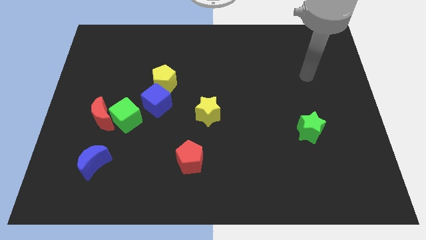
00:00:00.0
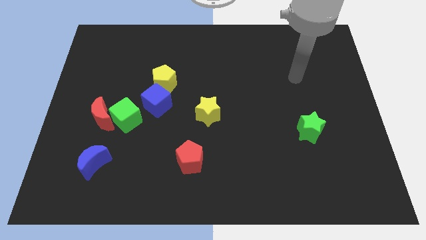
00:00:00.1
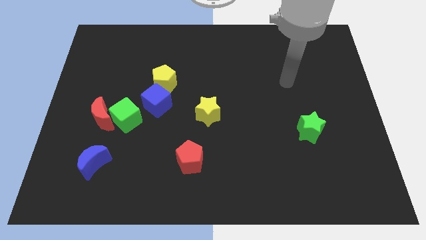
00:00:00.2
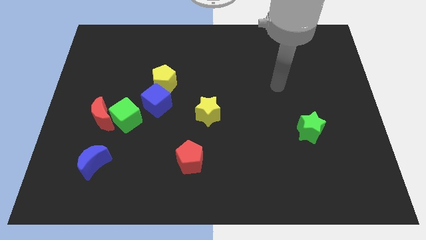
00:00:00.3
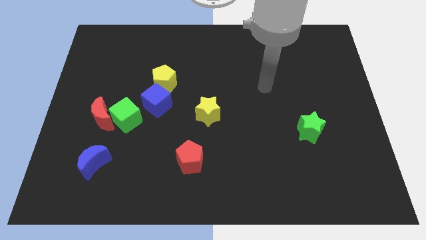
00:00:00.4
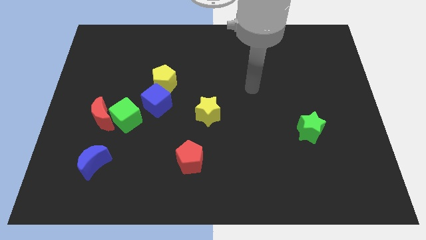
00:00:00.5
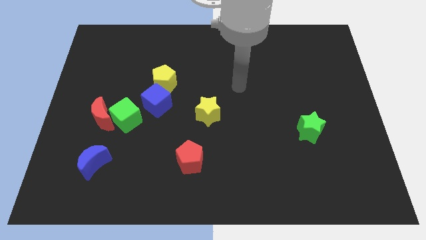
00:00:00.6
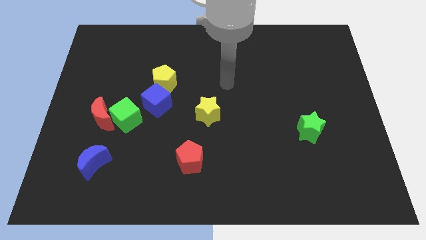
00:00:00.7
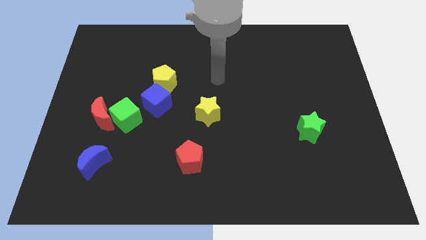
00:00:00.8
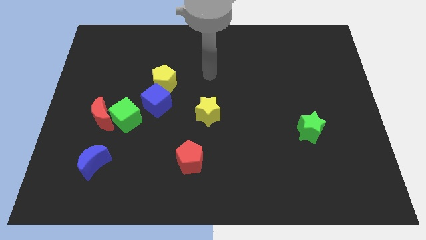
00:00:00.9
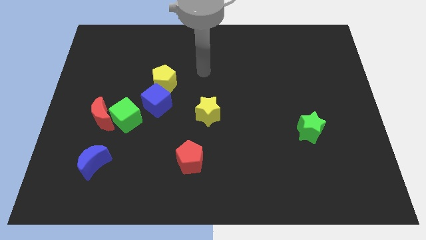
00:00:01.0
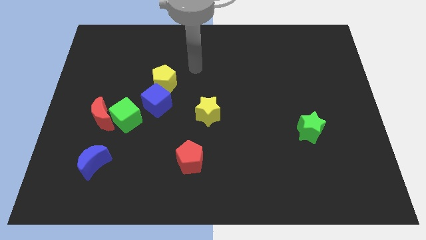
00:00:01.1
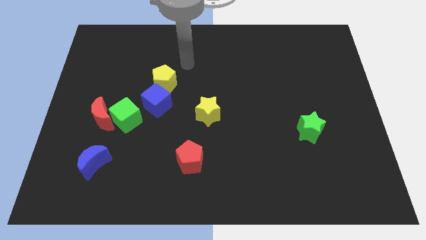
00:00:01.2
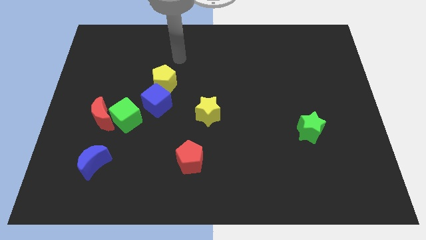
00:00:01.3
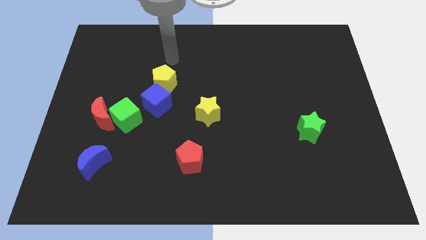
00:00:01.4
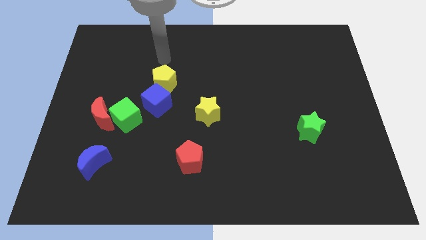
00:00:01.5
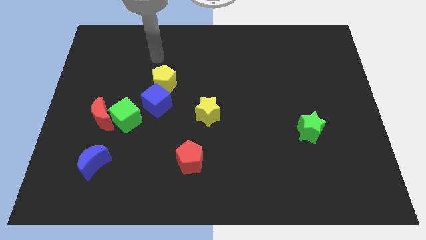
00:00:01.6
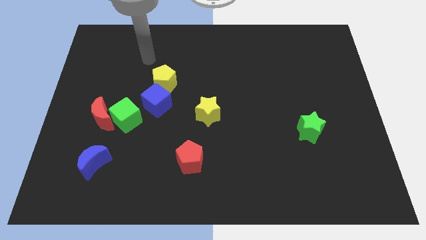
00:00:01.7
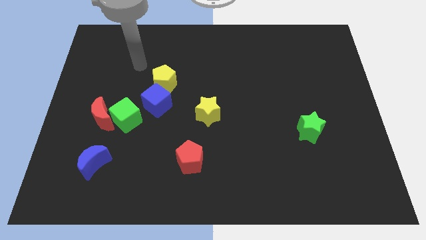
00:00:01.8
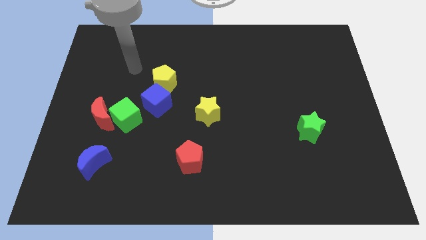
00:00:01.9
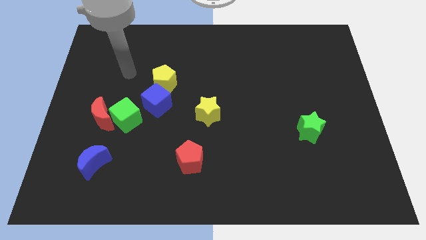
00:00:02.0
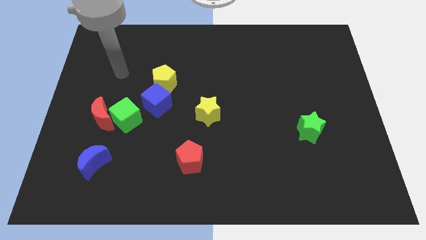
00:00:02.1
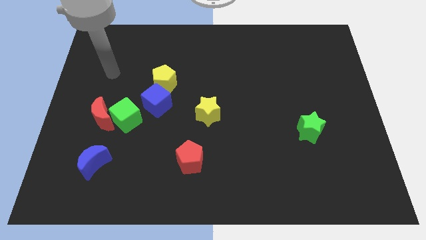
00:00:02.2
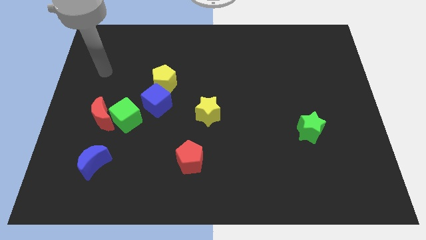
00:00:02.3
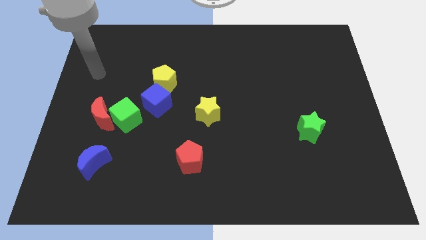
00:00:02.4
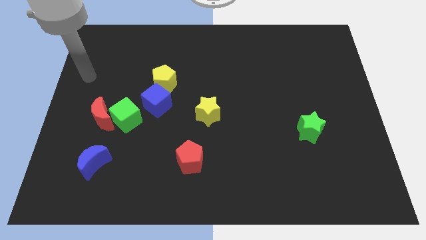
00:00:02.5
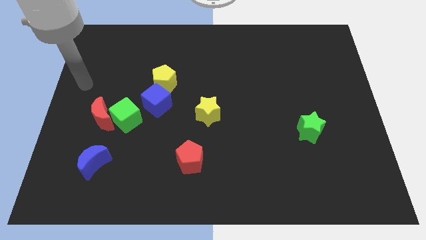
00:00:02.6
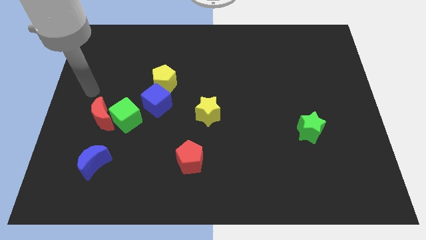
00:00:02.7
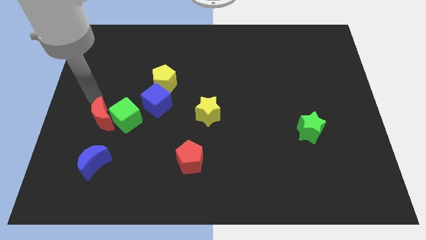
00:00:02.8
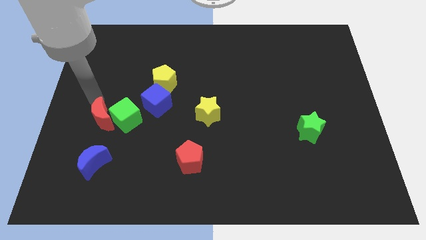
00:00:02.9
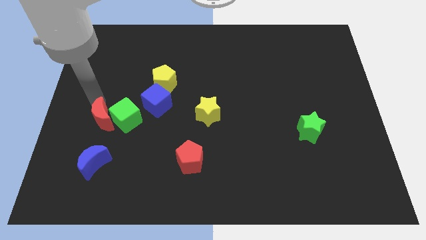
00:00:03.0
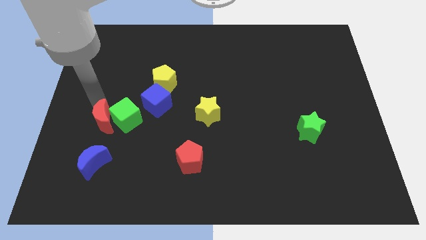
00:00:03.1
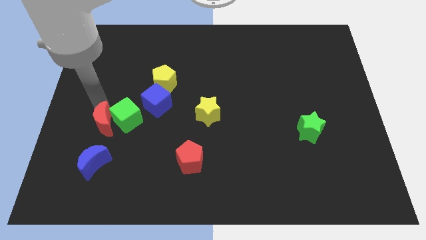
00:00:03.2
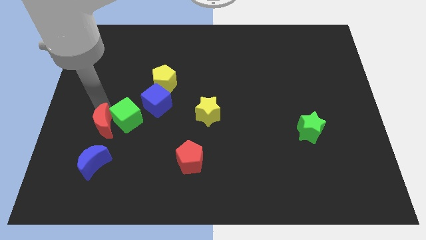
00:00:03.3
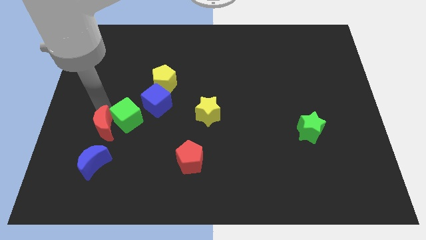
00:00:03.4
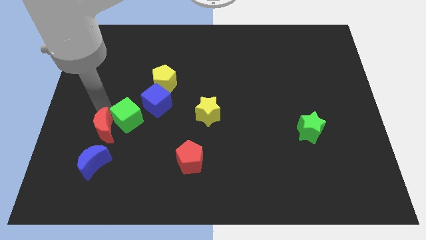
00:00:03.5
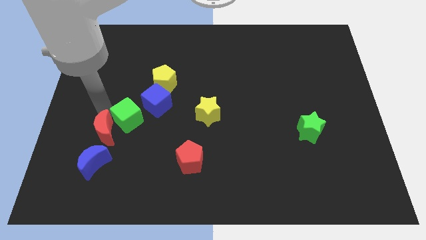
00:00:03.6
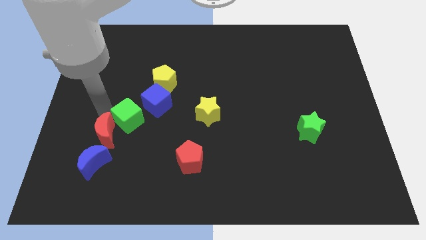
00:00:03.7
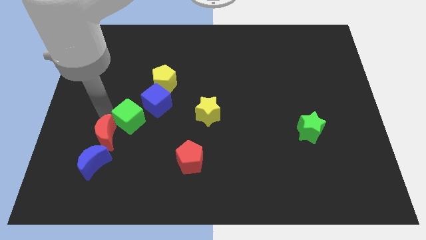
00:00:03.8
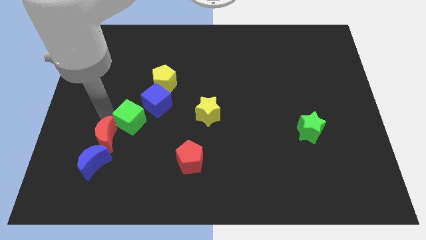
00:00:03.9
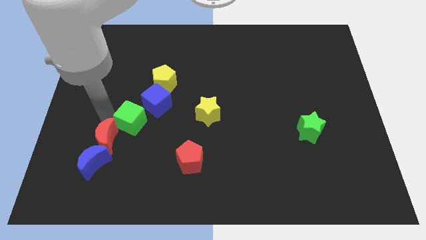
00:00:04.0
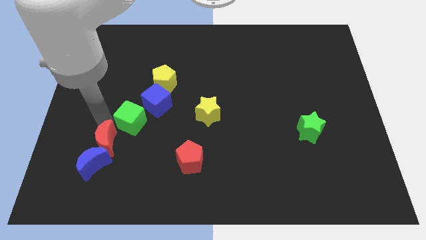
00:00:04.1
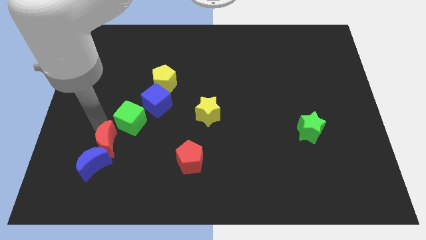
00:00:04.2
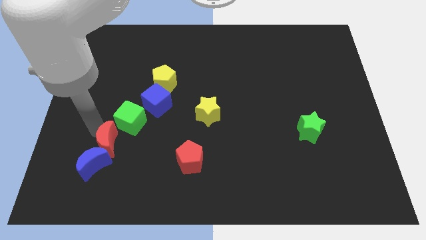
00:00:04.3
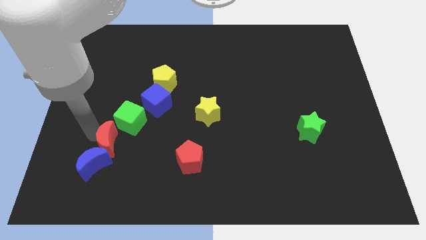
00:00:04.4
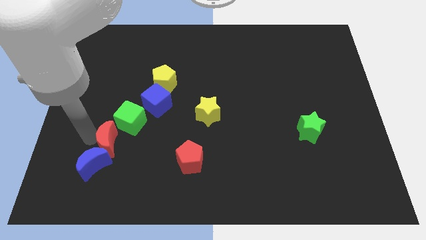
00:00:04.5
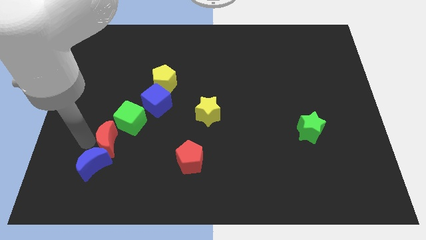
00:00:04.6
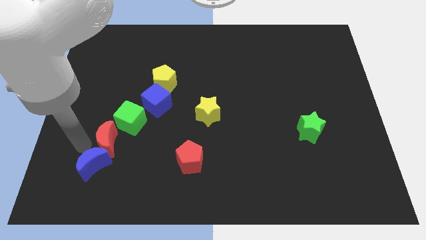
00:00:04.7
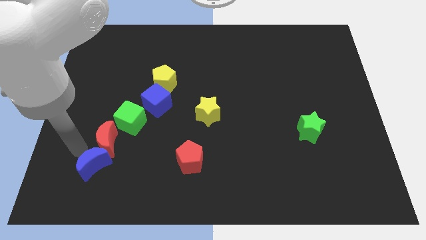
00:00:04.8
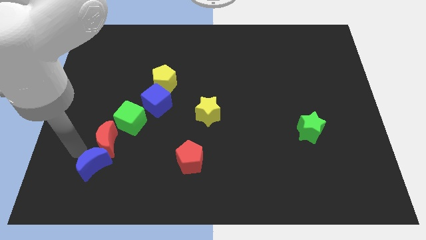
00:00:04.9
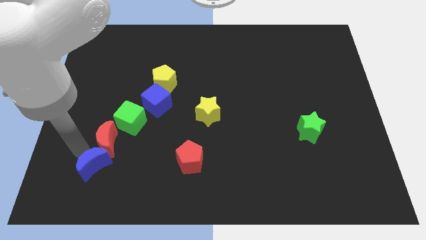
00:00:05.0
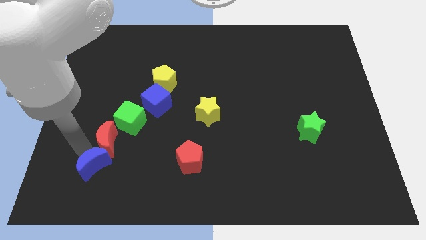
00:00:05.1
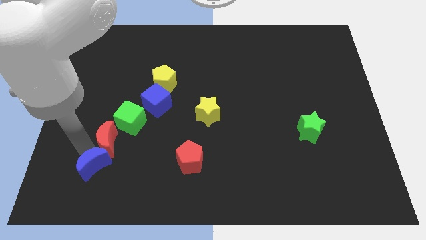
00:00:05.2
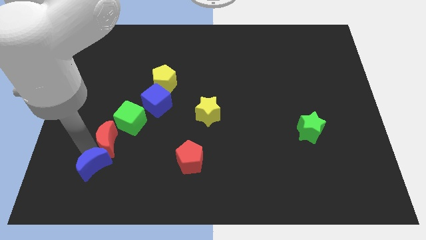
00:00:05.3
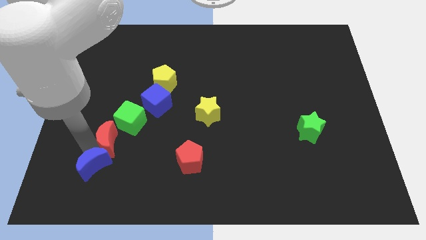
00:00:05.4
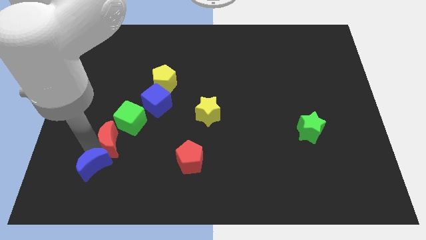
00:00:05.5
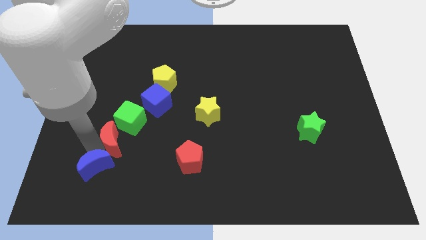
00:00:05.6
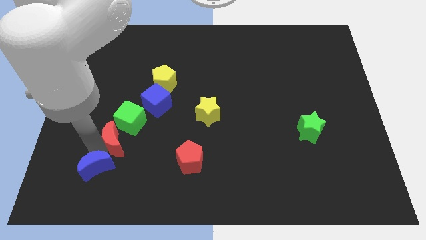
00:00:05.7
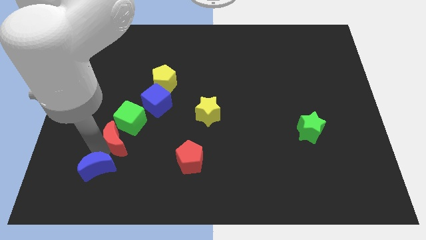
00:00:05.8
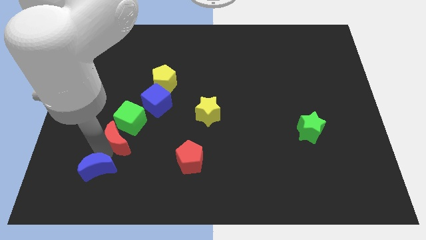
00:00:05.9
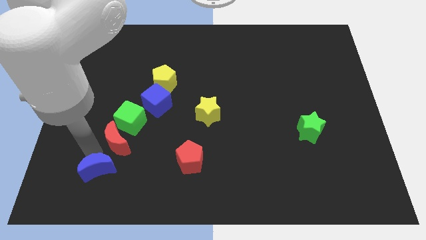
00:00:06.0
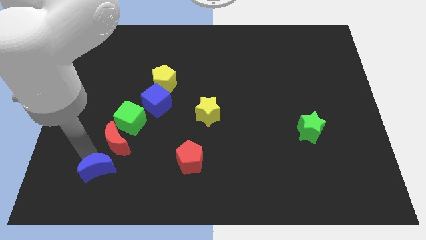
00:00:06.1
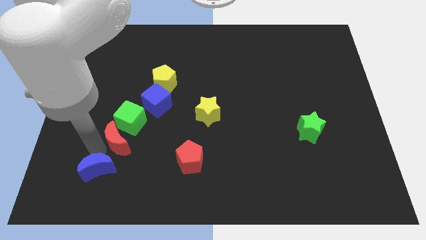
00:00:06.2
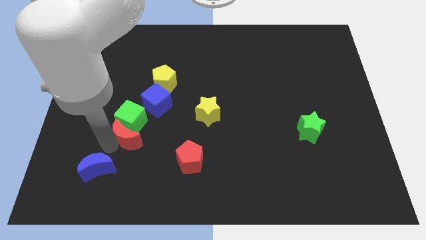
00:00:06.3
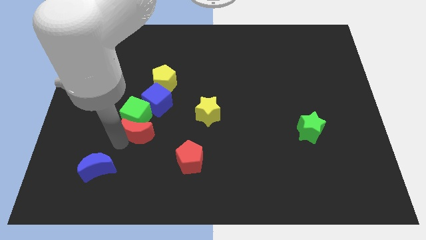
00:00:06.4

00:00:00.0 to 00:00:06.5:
slightly slide the red moon right

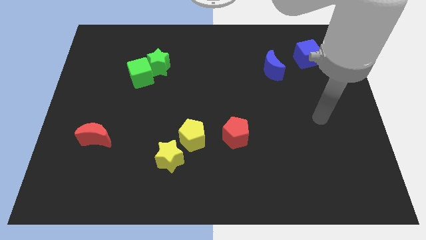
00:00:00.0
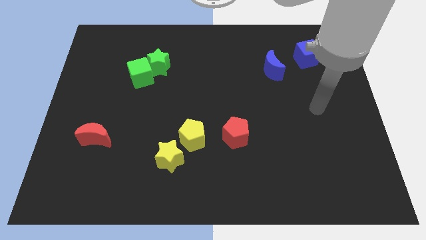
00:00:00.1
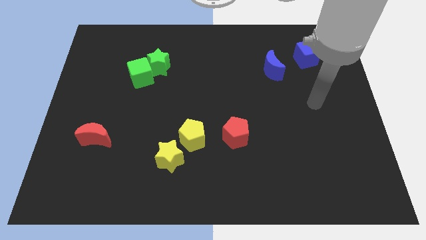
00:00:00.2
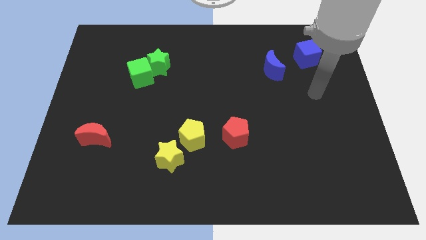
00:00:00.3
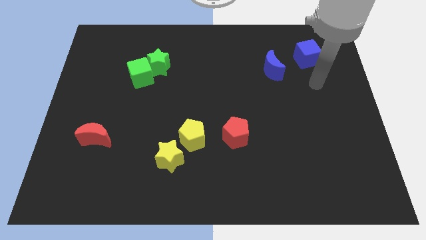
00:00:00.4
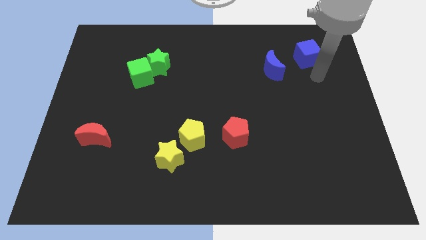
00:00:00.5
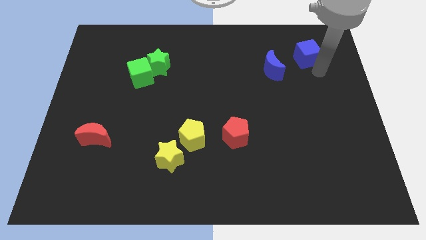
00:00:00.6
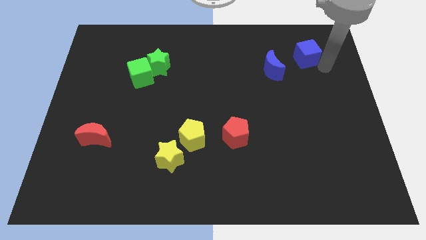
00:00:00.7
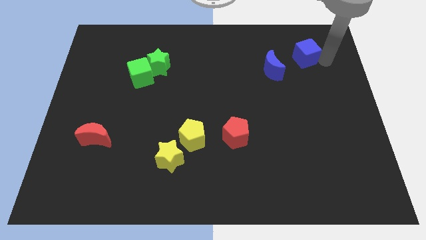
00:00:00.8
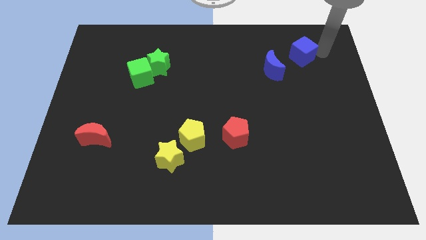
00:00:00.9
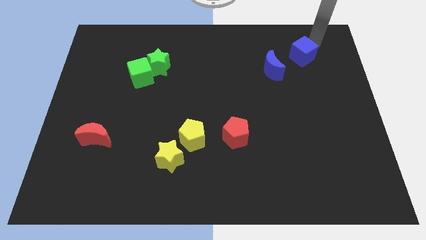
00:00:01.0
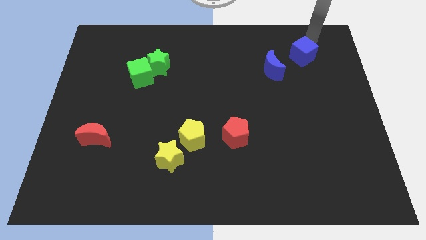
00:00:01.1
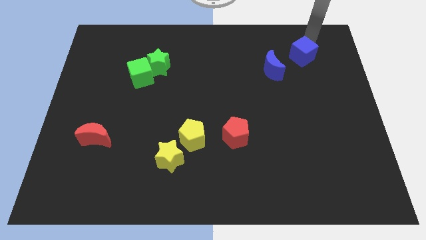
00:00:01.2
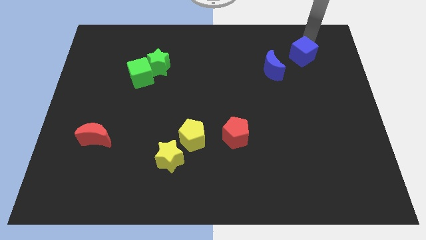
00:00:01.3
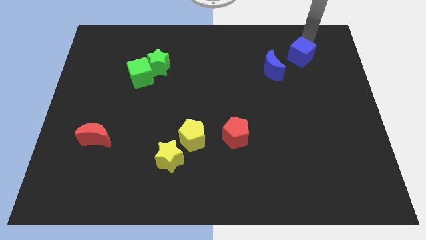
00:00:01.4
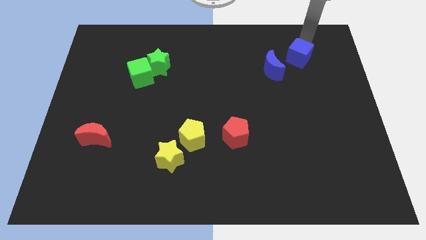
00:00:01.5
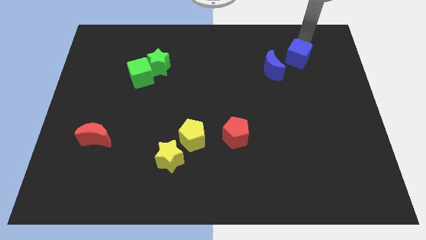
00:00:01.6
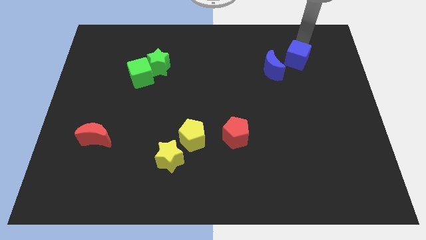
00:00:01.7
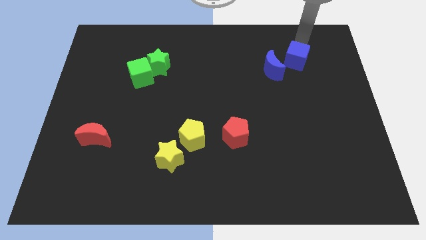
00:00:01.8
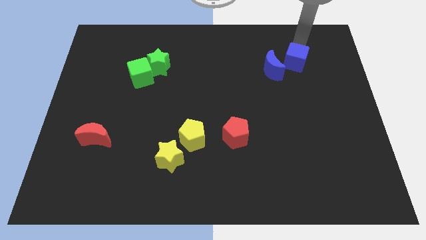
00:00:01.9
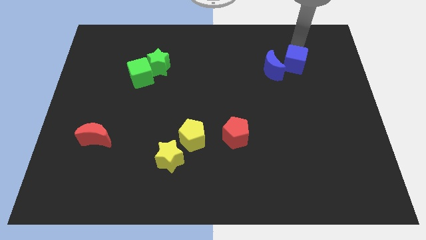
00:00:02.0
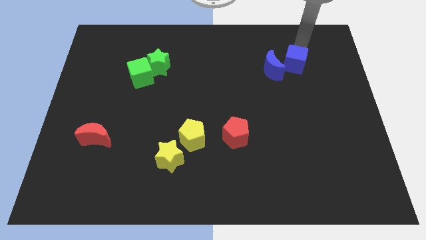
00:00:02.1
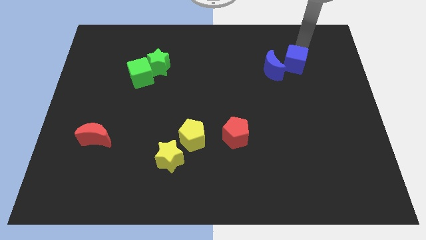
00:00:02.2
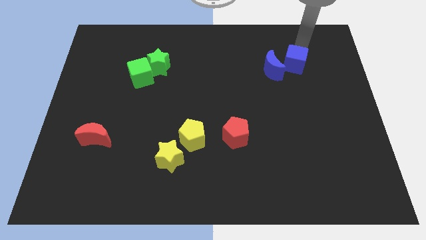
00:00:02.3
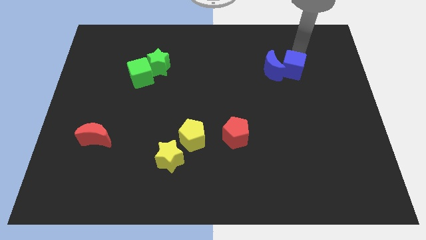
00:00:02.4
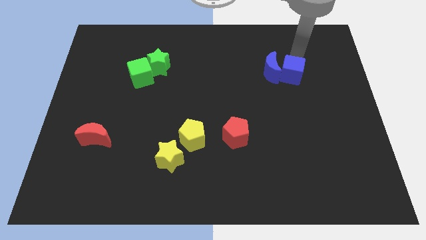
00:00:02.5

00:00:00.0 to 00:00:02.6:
slide the blue cube downwards and left a little
